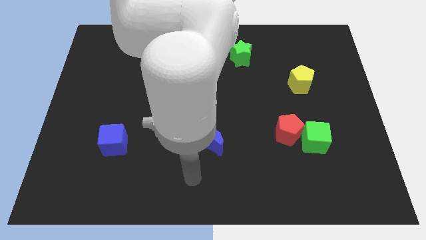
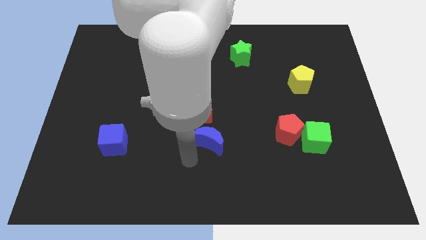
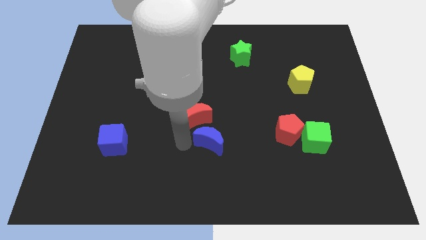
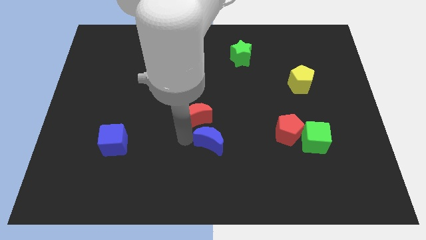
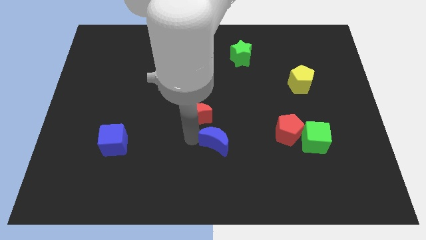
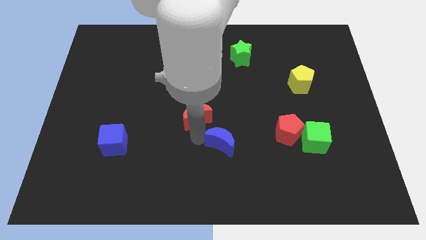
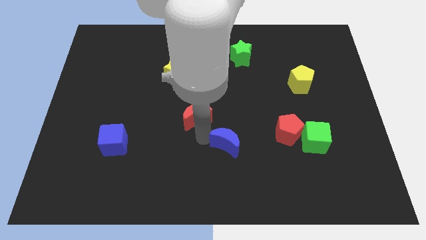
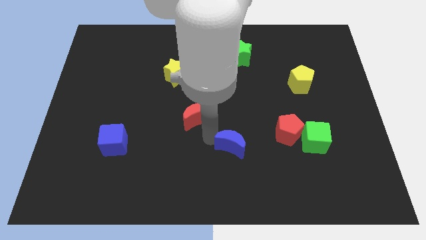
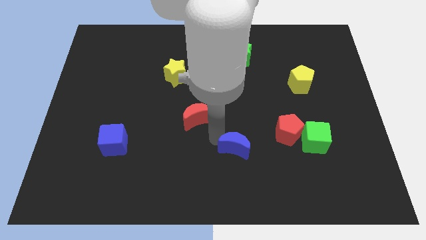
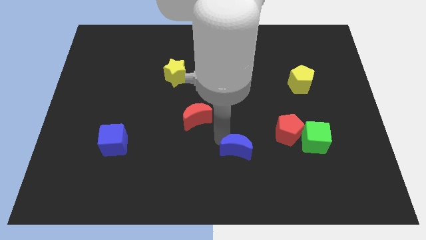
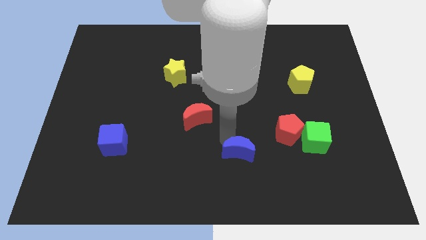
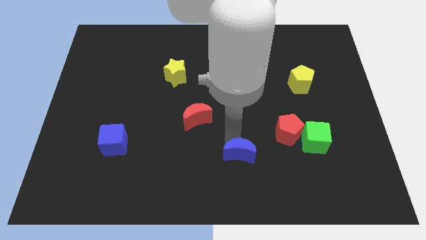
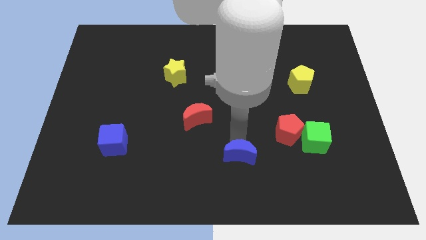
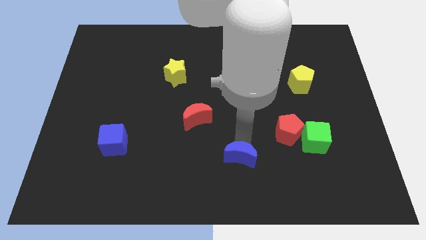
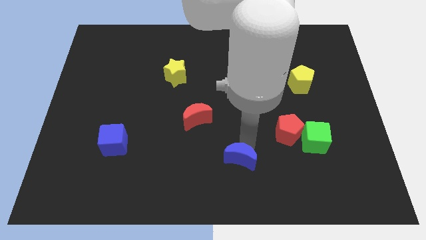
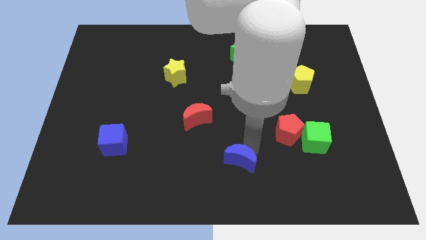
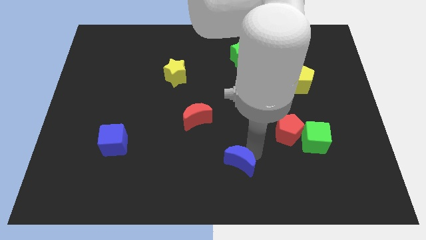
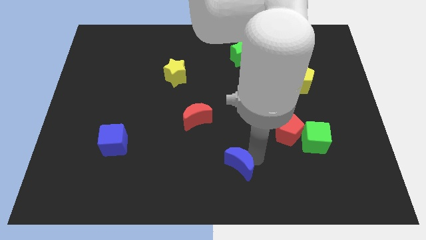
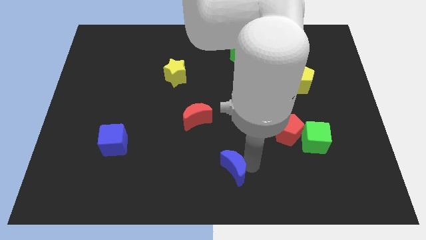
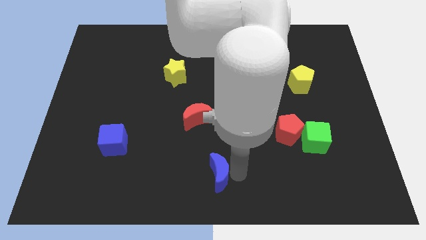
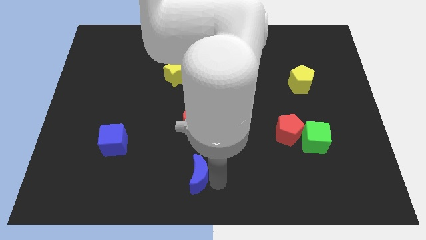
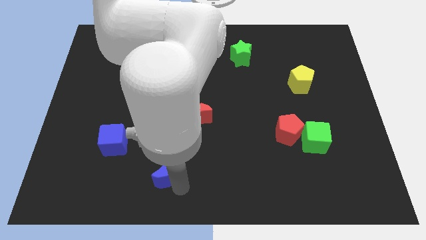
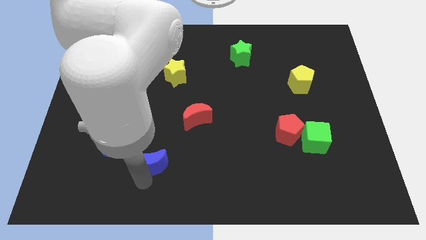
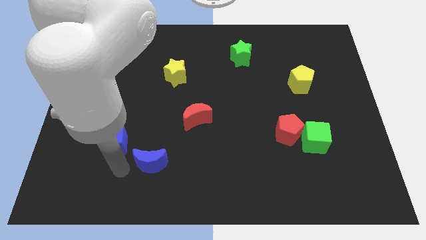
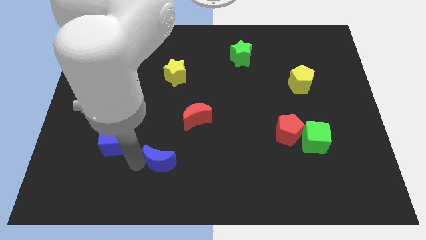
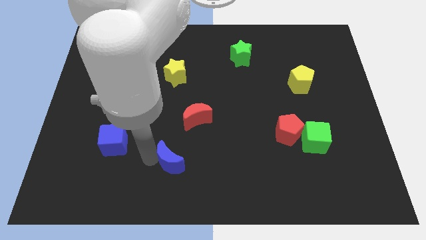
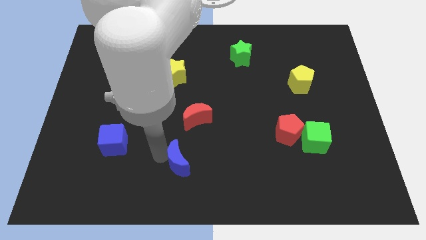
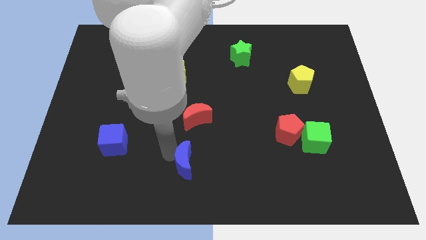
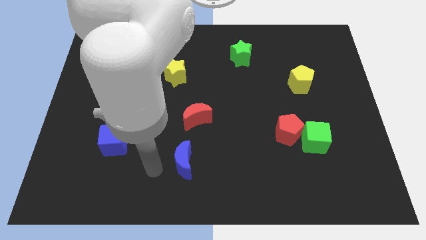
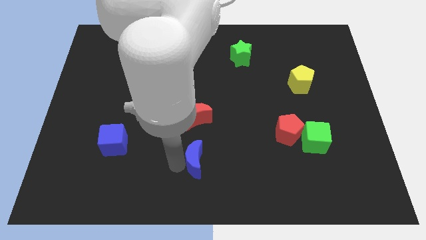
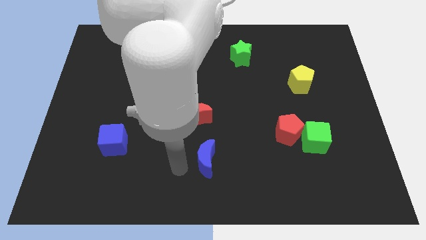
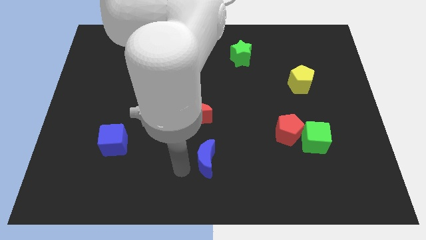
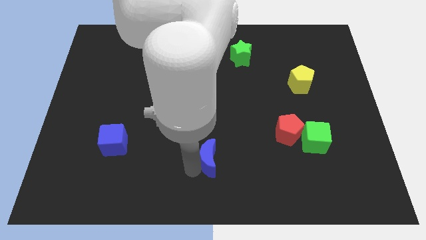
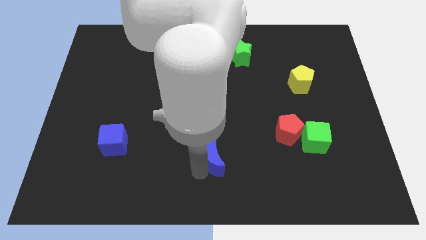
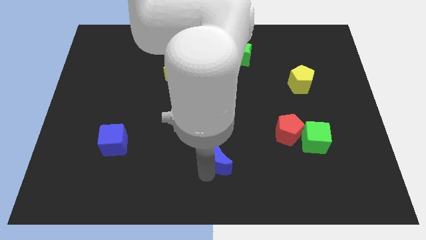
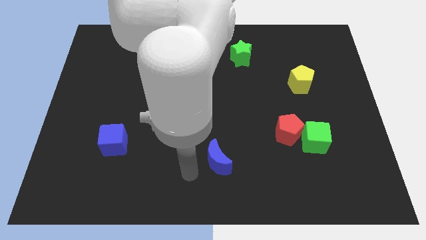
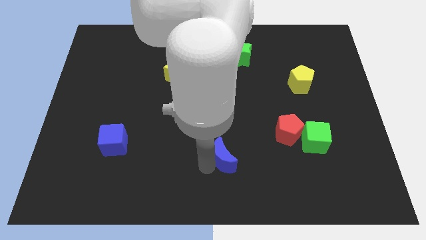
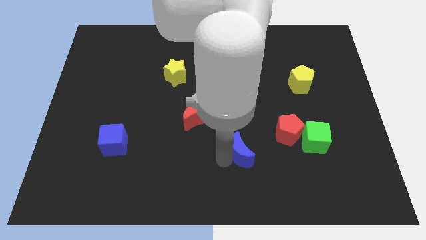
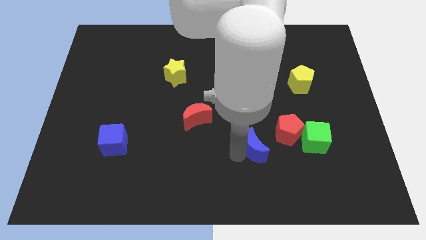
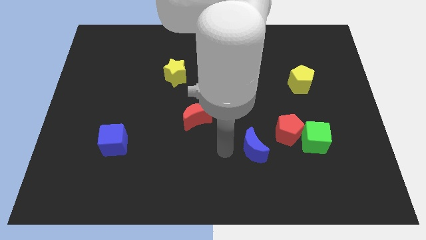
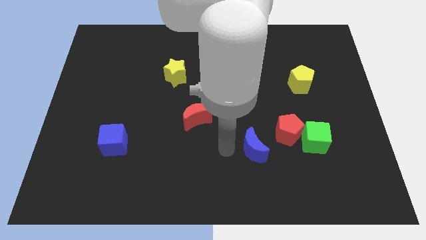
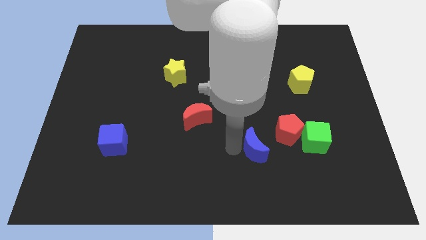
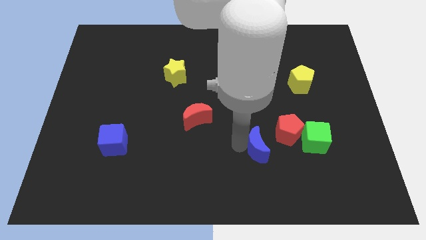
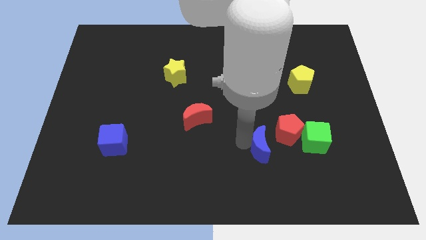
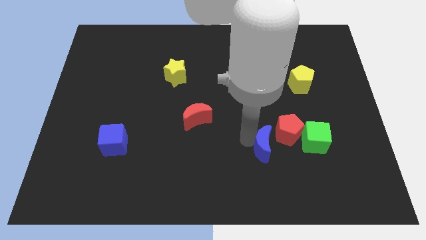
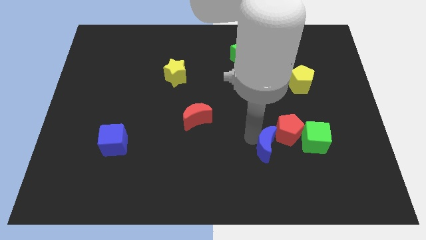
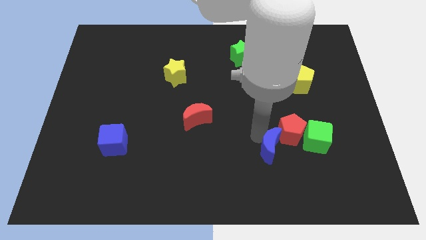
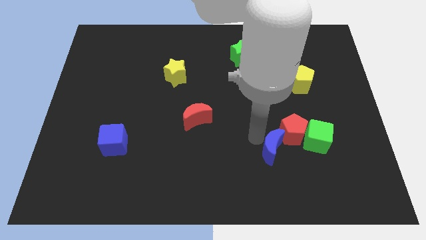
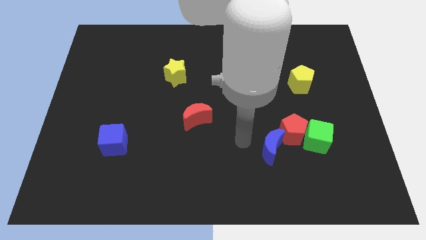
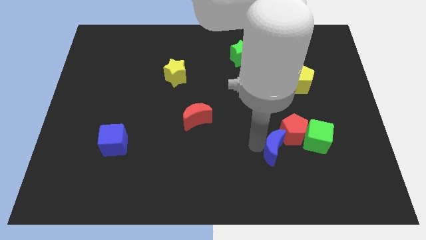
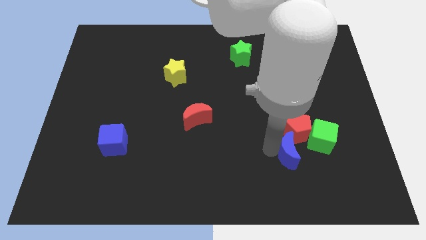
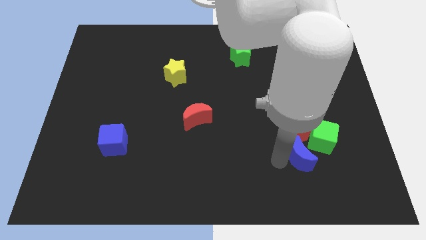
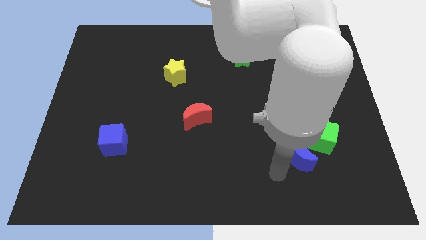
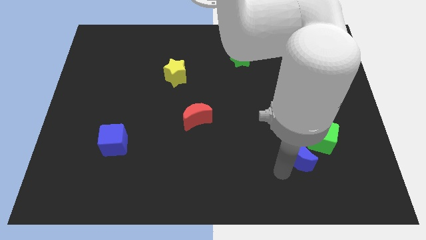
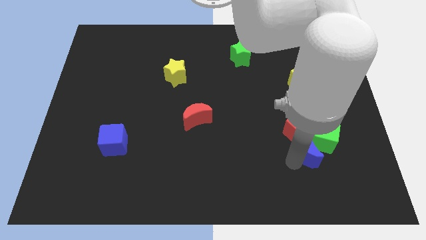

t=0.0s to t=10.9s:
push the blue moon to the green cube

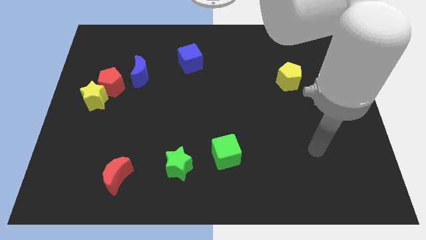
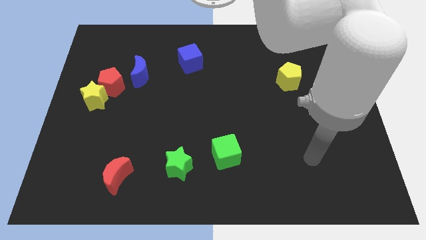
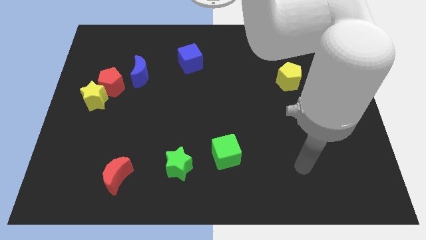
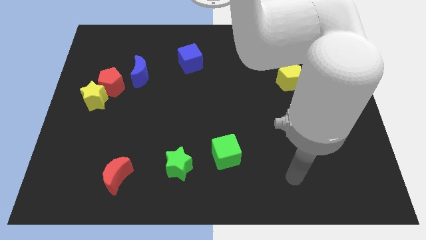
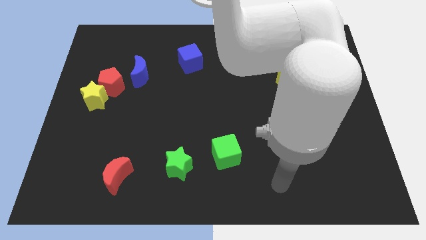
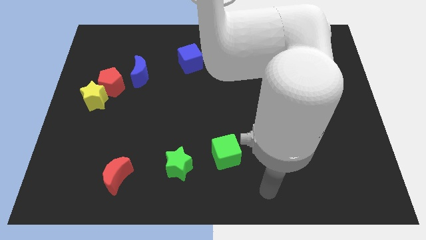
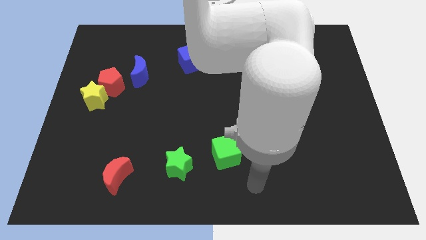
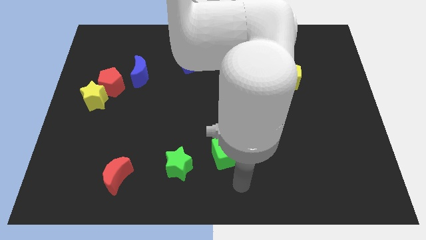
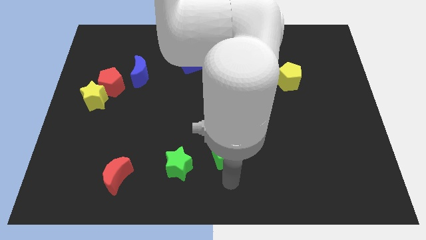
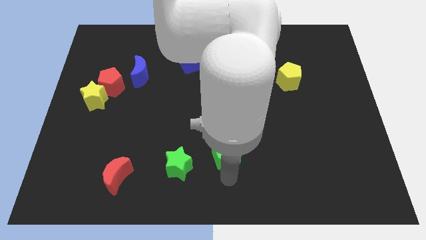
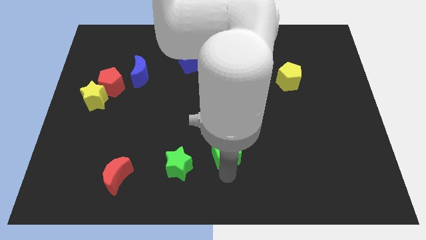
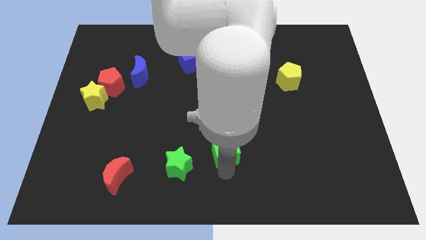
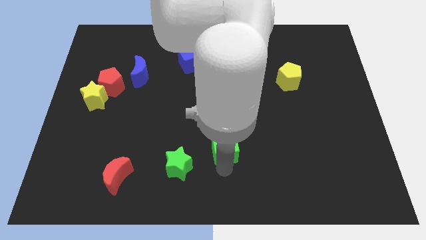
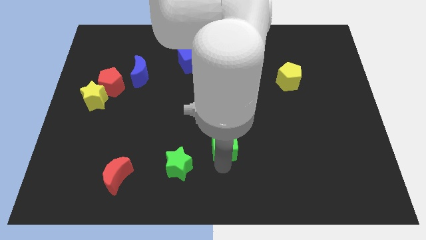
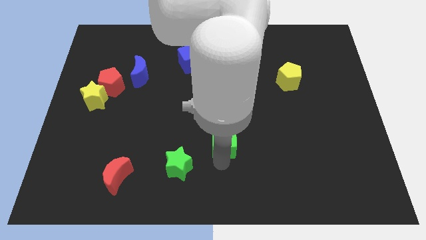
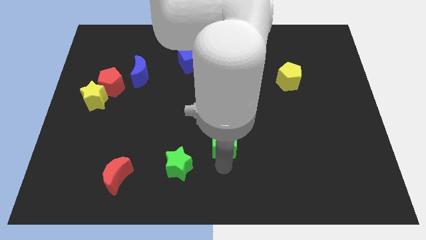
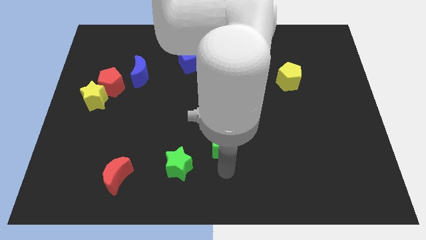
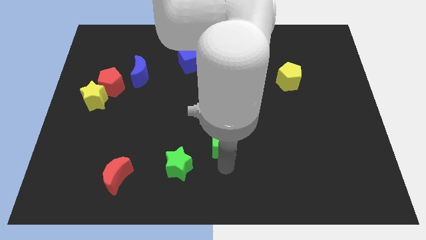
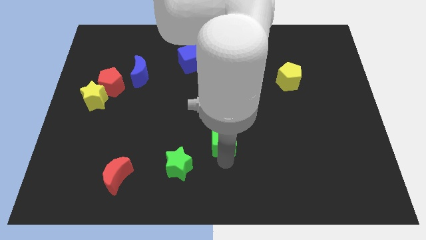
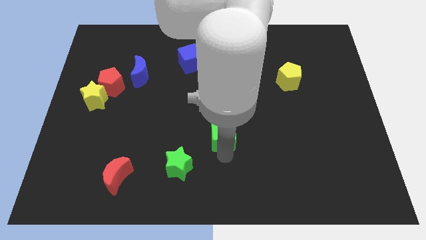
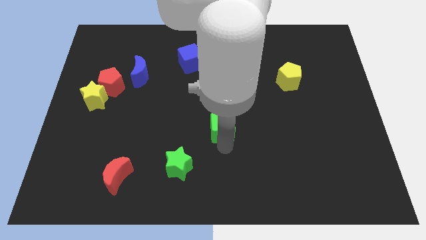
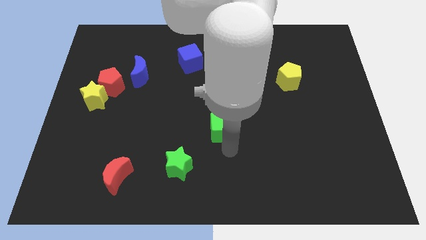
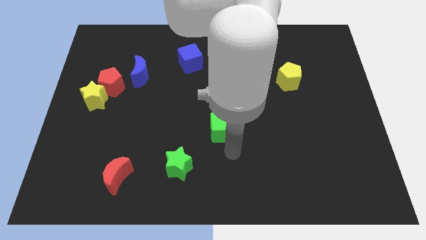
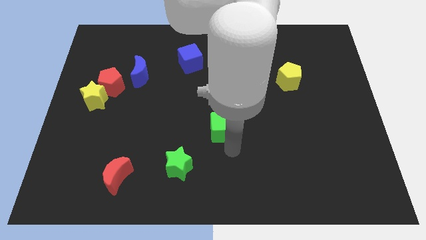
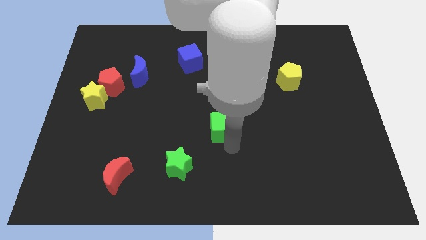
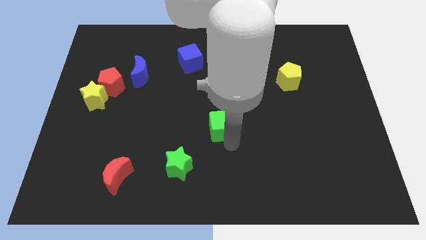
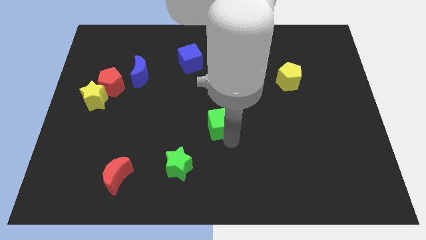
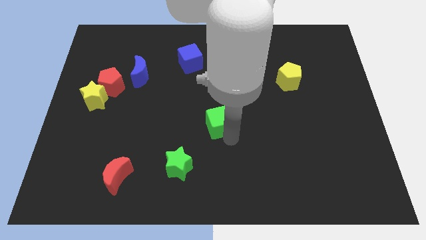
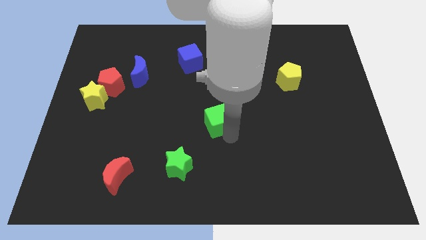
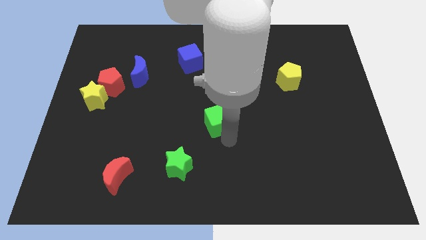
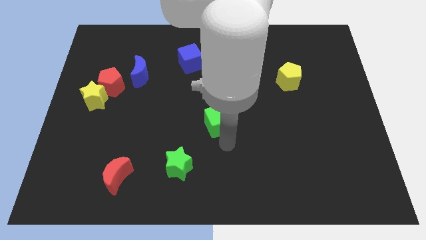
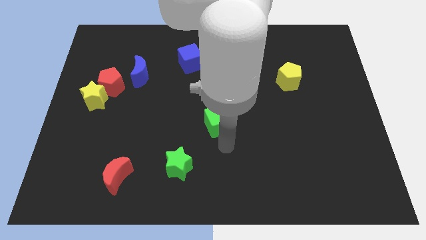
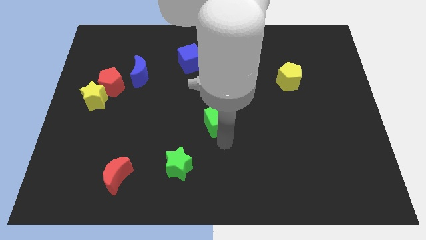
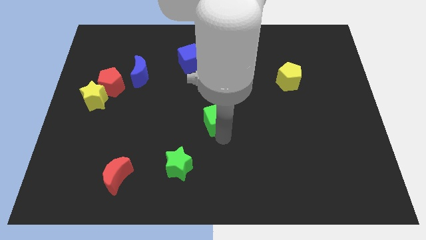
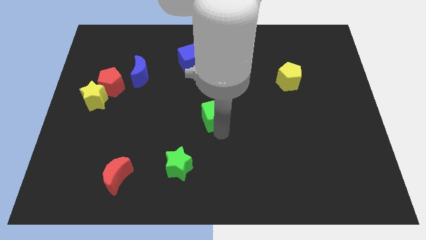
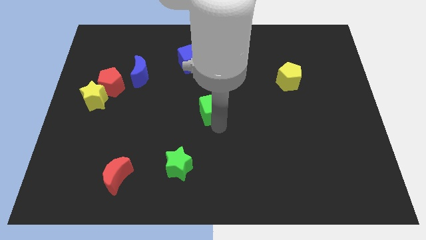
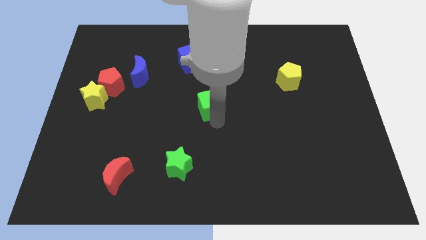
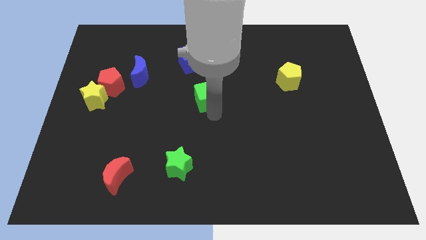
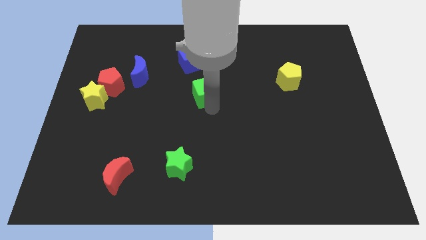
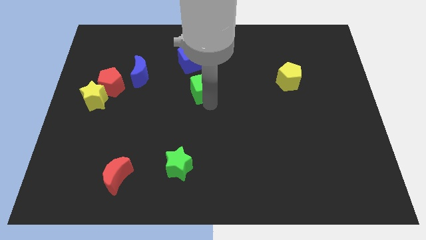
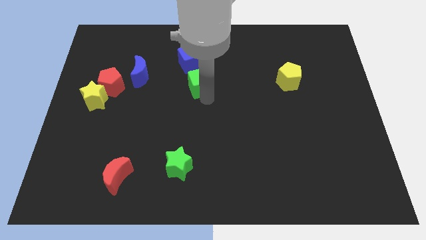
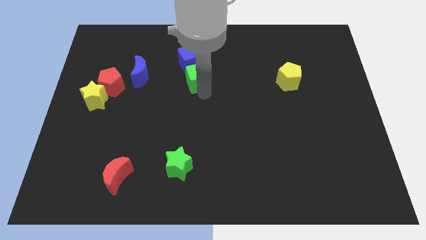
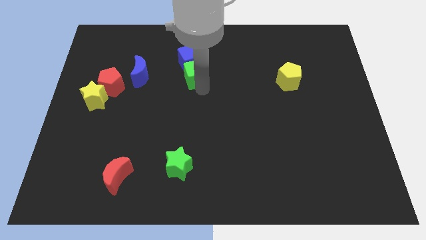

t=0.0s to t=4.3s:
push the green cube to the blue cube
